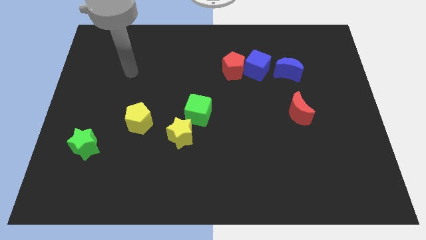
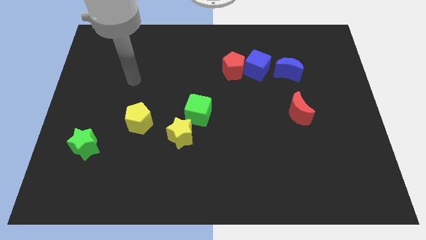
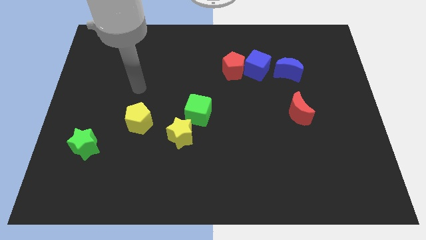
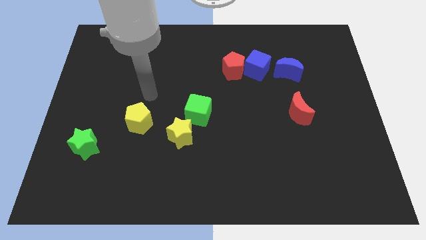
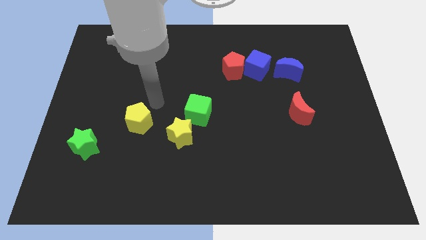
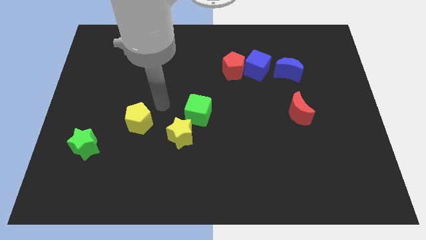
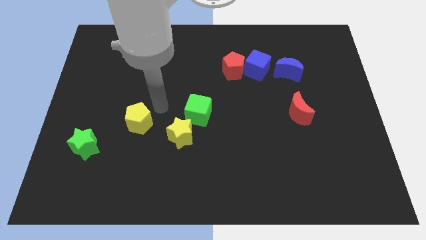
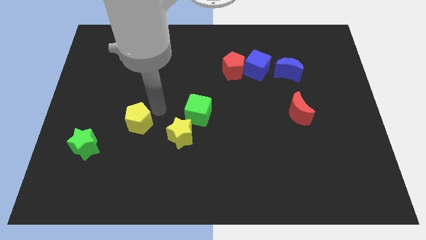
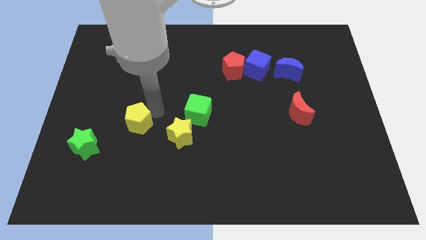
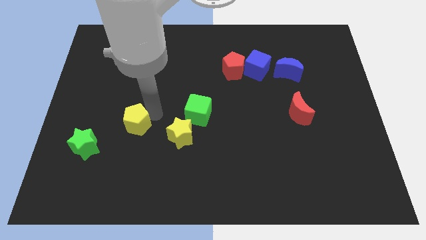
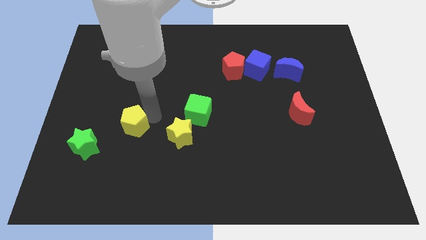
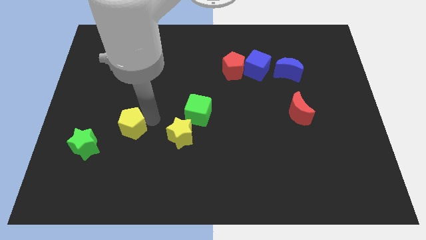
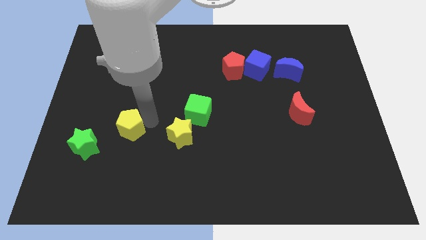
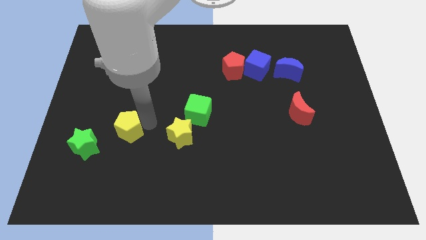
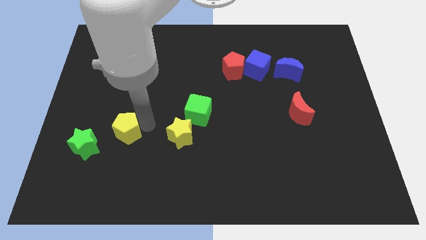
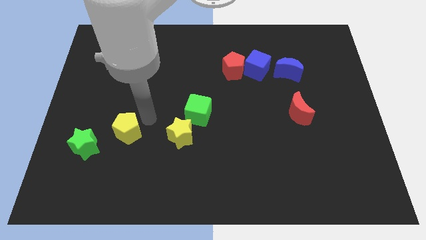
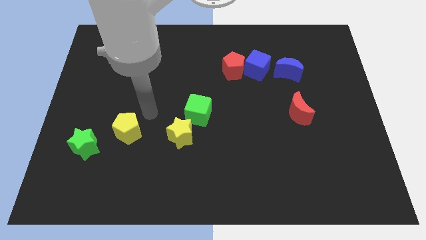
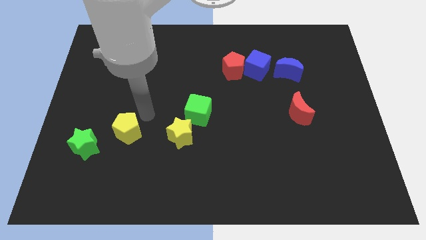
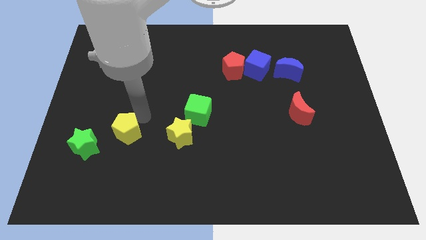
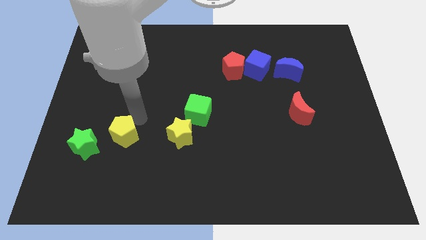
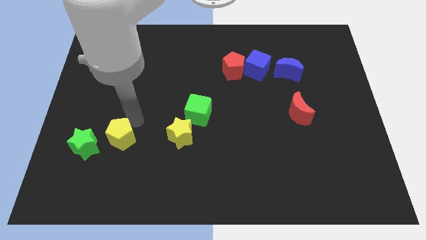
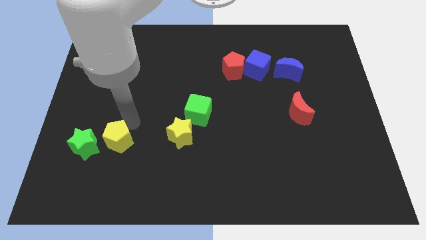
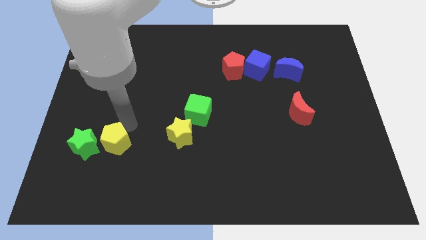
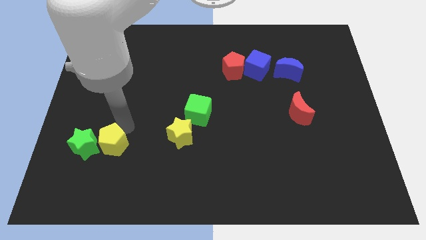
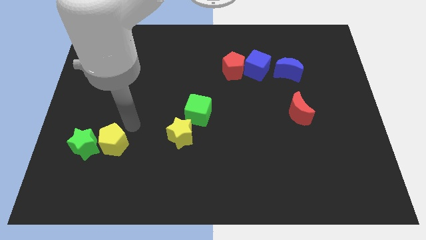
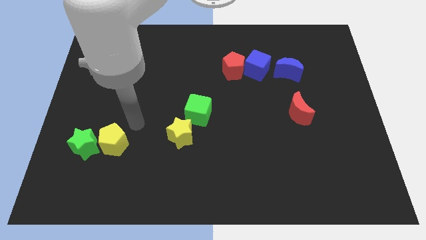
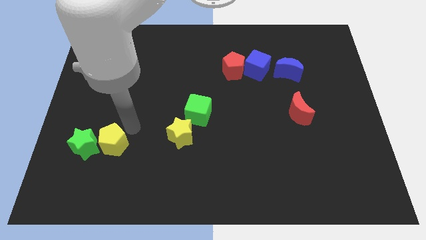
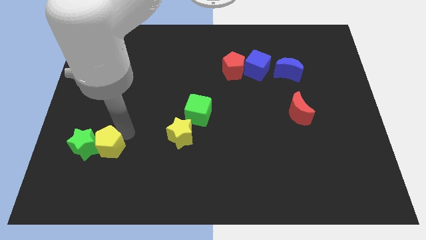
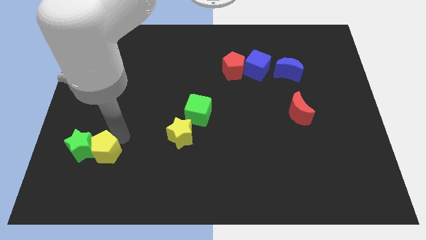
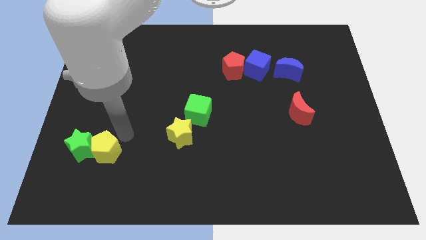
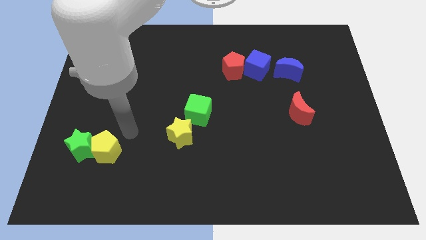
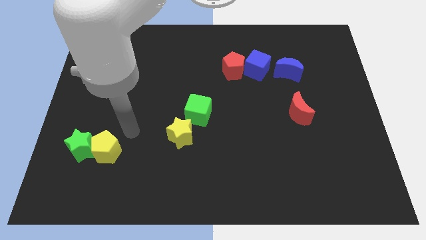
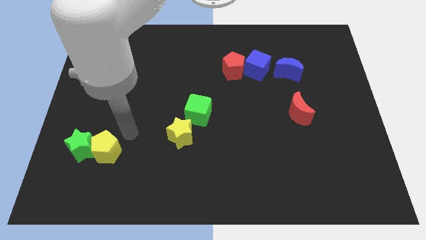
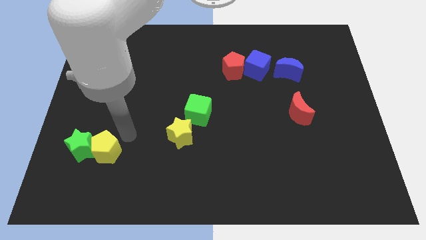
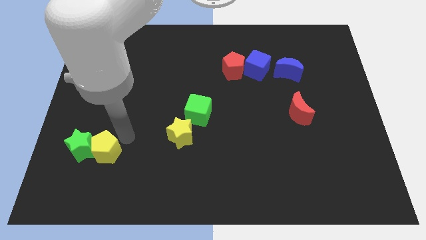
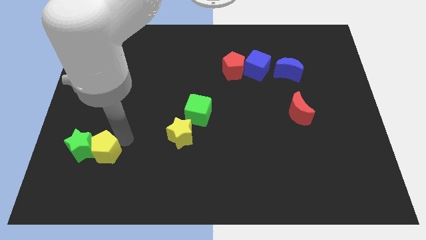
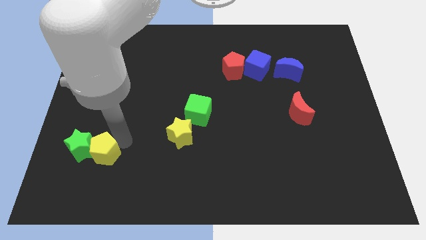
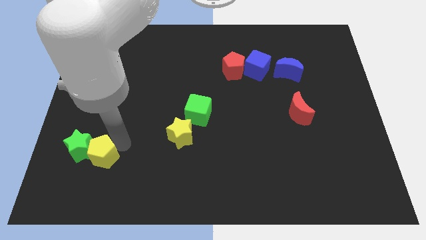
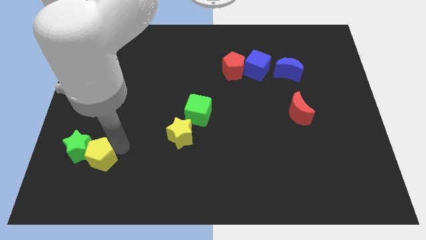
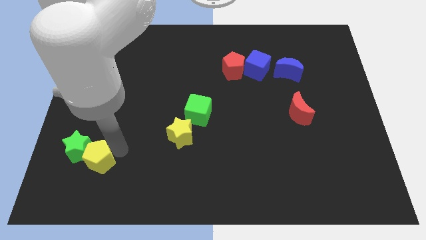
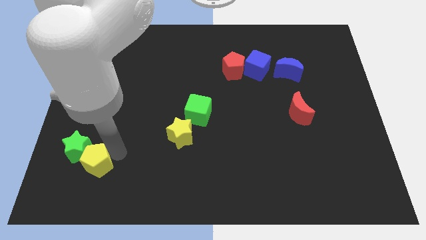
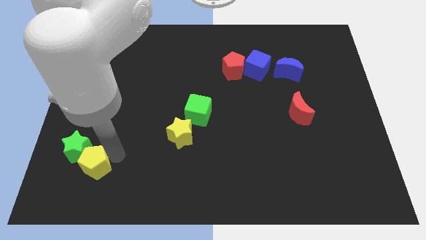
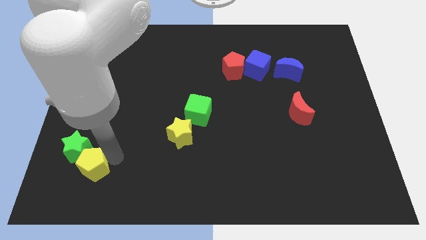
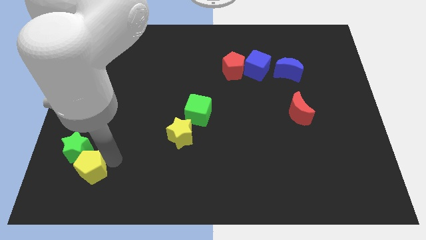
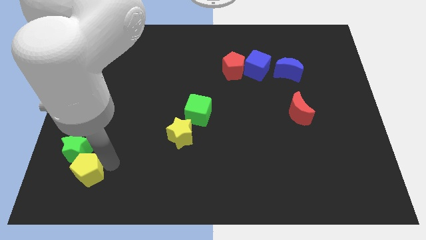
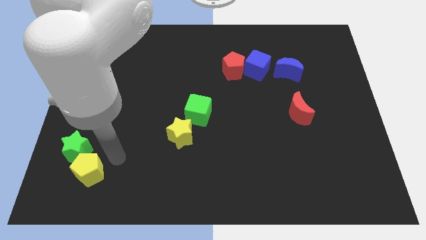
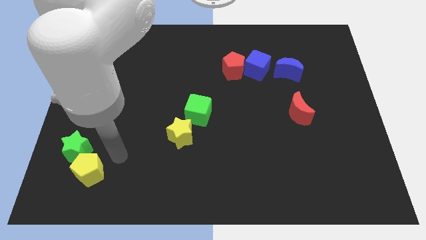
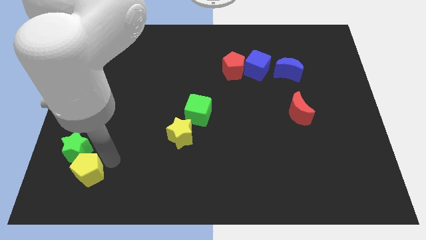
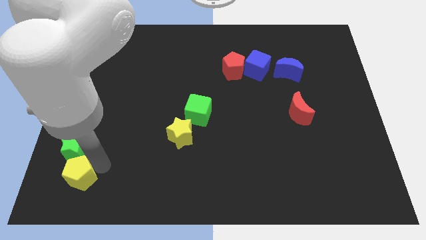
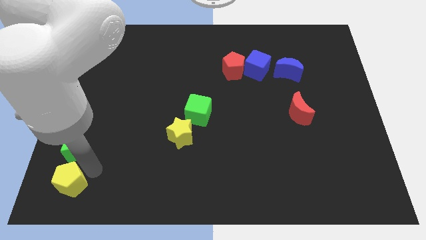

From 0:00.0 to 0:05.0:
put the yellow pentagon to the bottom left of the board

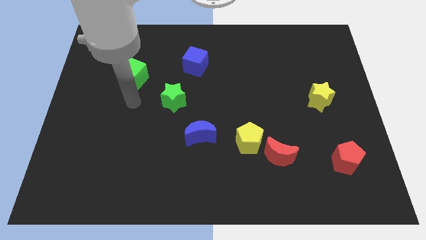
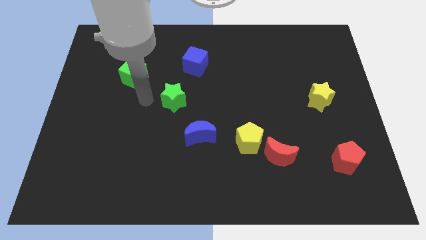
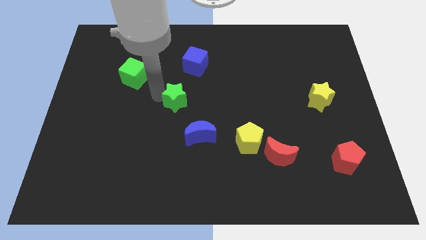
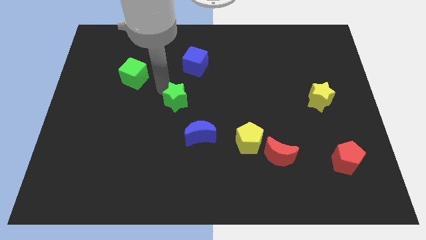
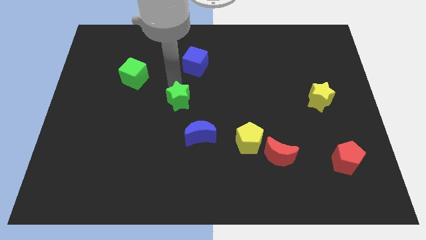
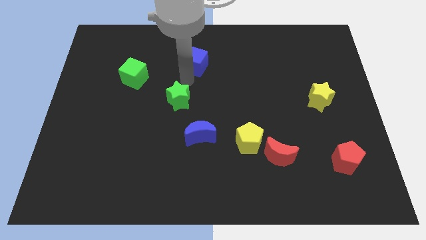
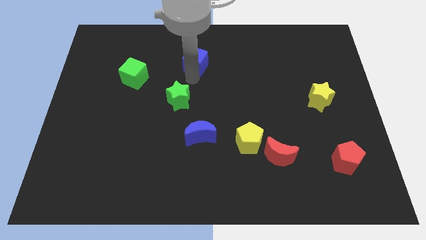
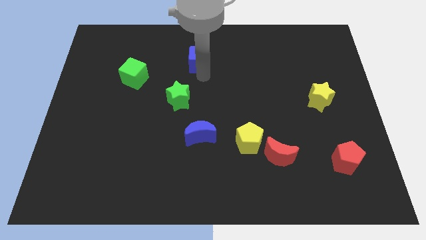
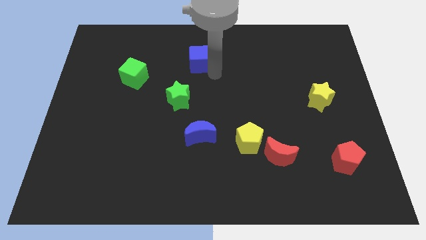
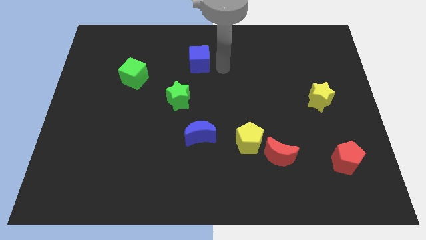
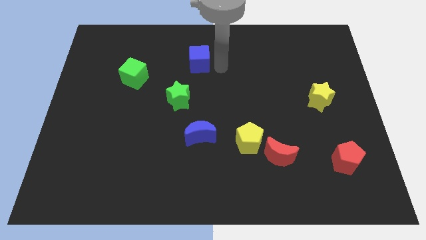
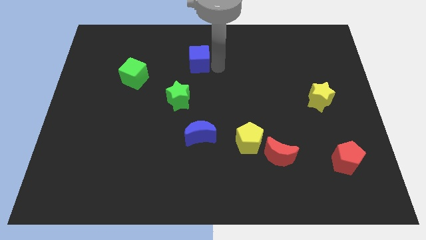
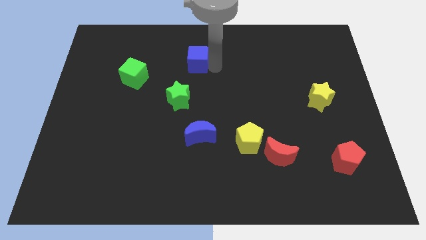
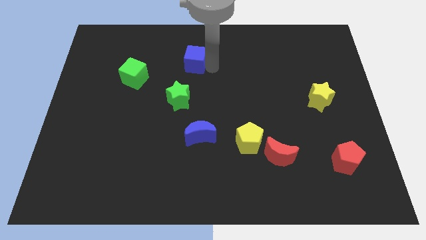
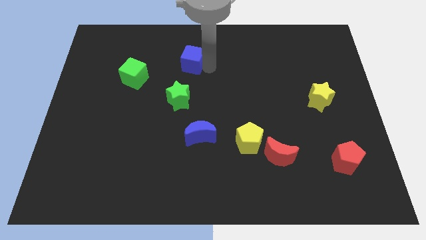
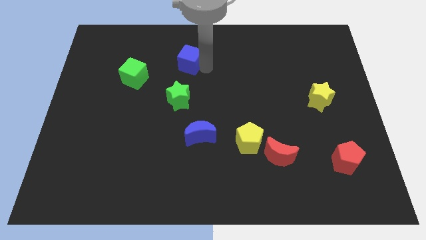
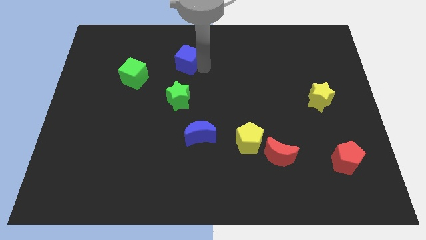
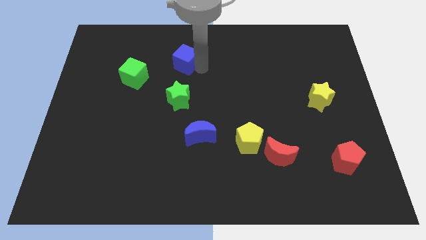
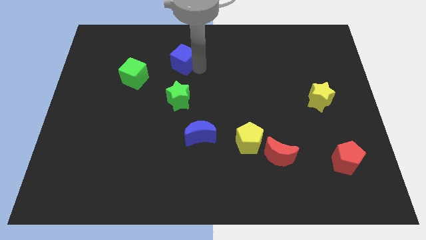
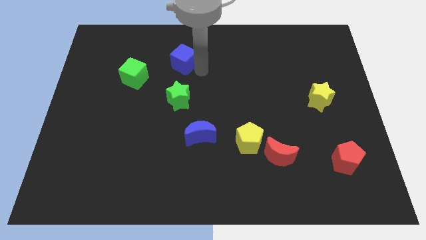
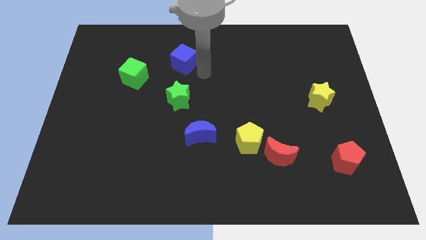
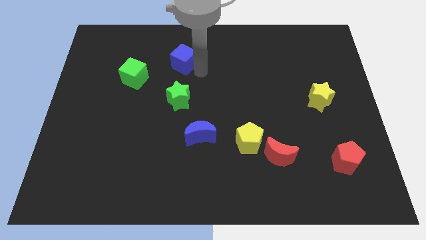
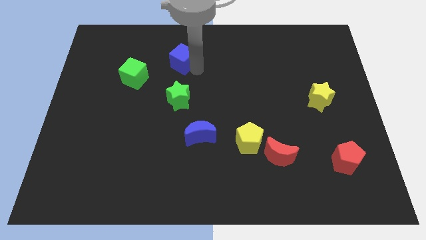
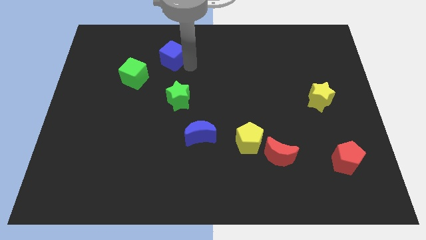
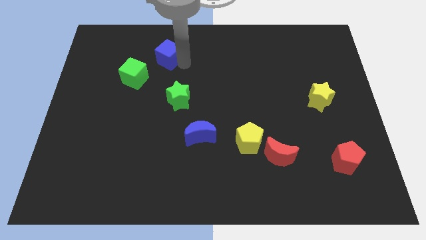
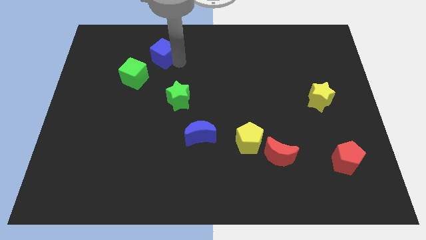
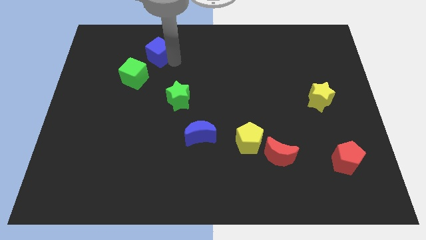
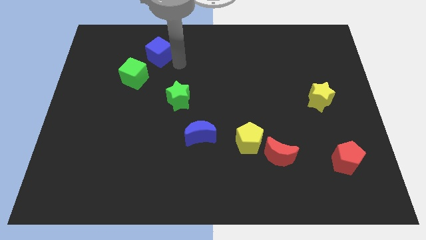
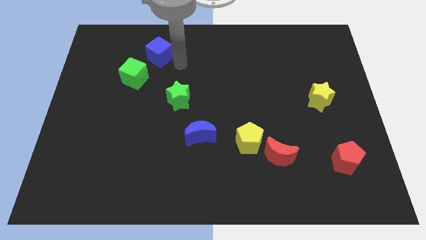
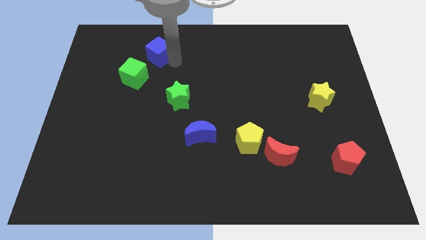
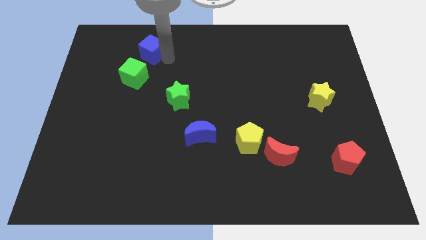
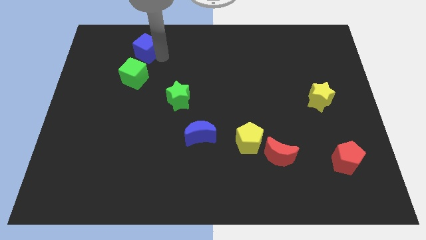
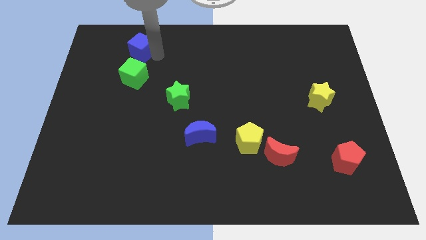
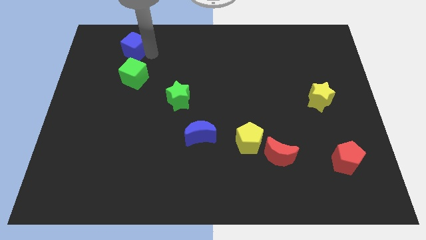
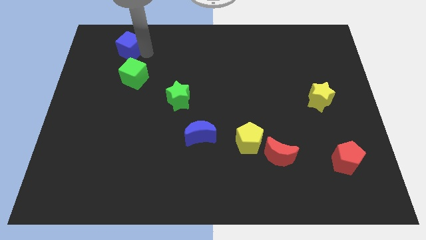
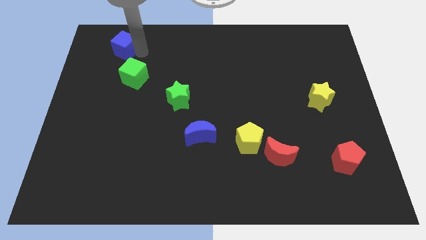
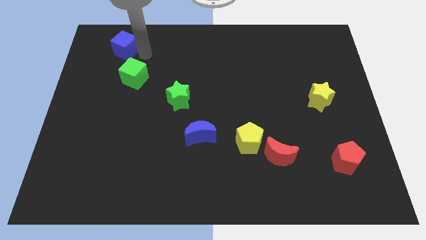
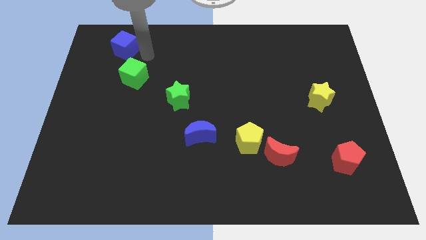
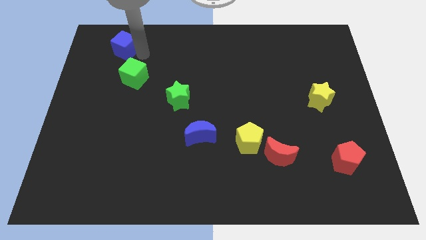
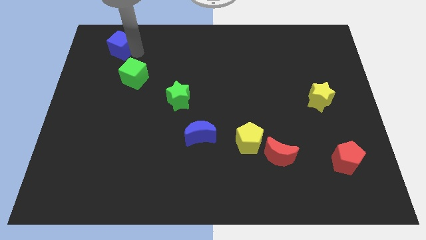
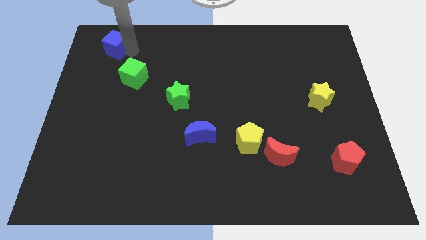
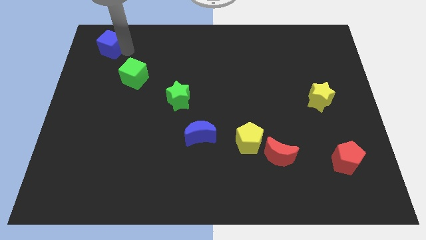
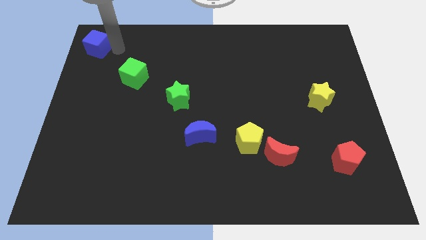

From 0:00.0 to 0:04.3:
slide the blue cube to the upper left corner
